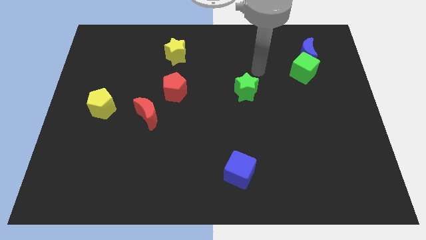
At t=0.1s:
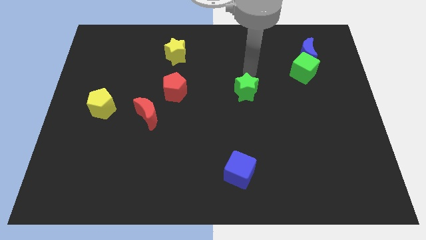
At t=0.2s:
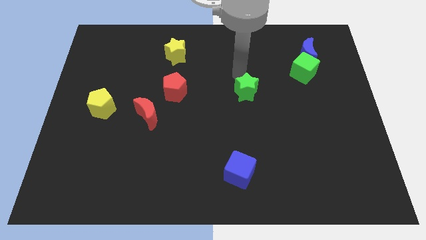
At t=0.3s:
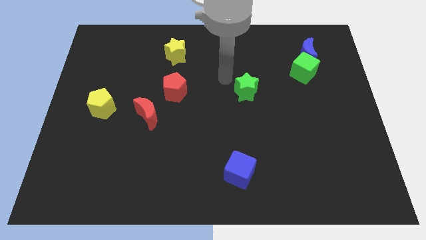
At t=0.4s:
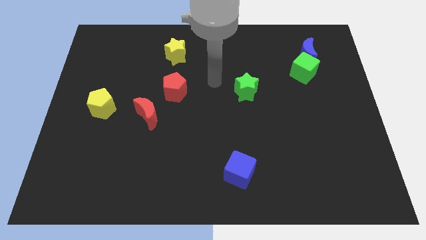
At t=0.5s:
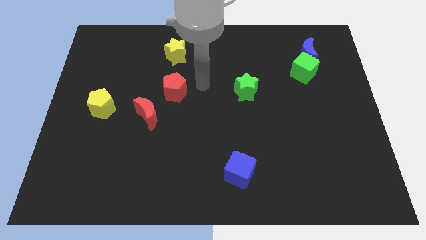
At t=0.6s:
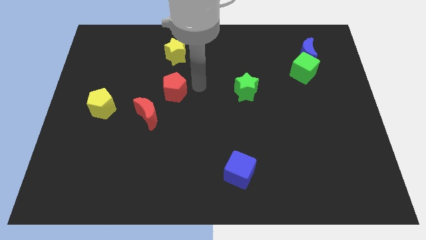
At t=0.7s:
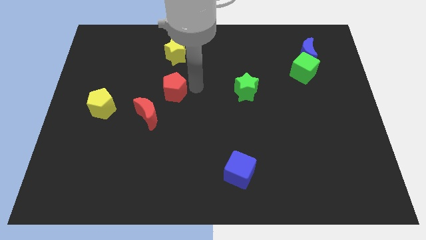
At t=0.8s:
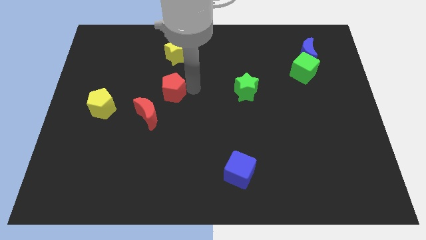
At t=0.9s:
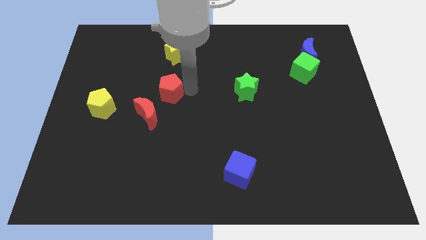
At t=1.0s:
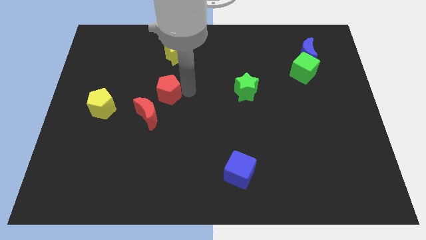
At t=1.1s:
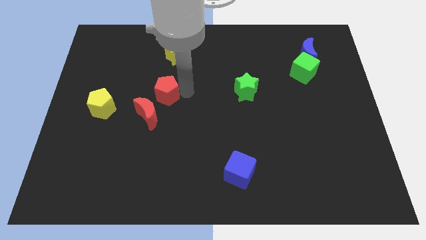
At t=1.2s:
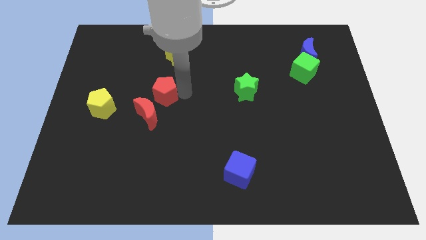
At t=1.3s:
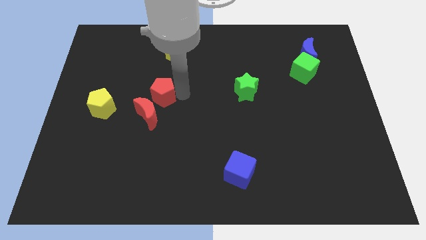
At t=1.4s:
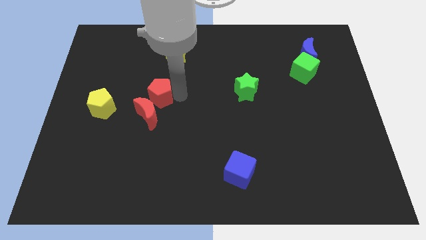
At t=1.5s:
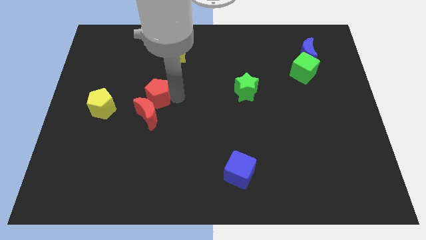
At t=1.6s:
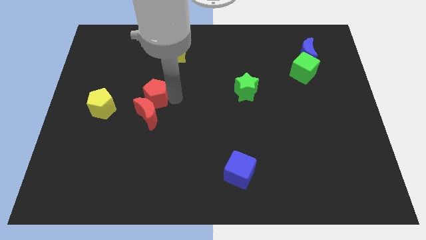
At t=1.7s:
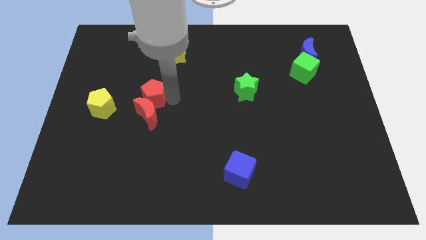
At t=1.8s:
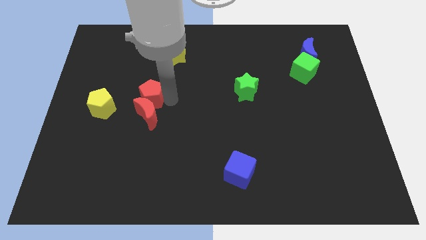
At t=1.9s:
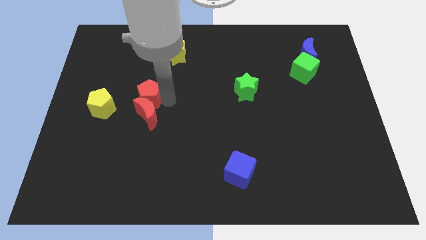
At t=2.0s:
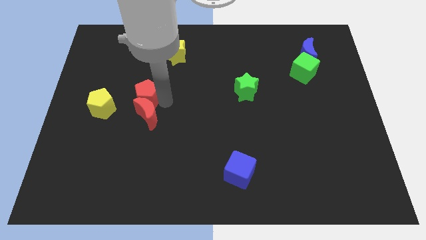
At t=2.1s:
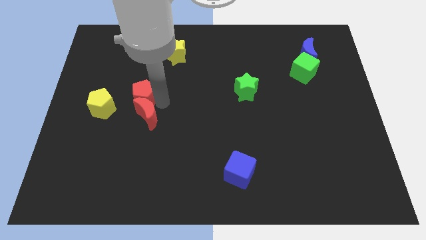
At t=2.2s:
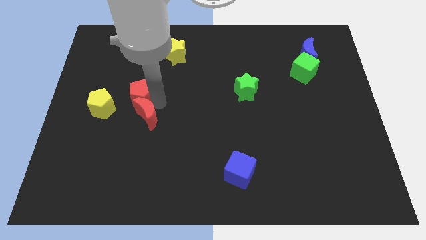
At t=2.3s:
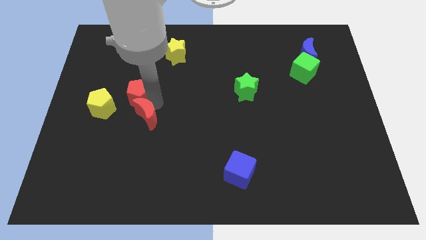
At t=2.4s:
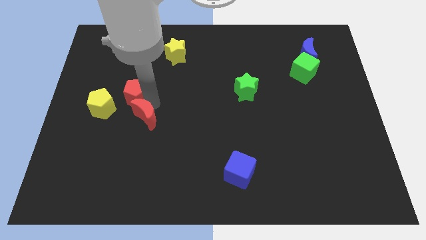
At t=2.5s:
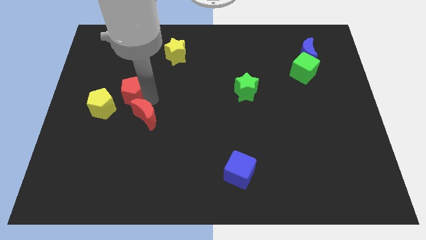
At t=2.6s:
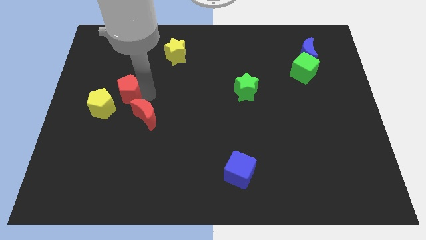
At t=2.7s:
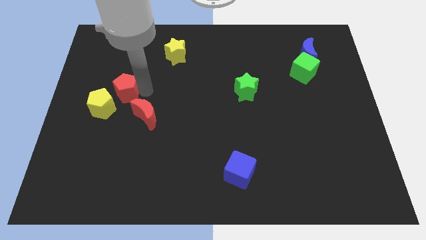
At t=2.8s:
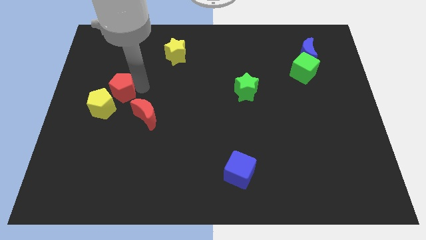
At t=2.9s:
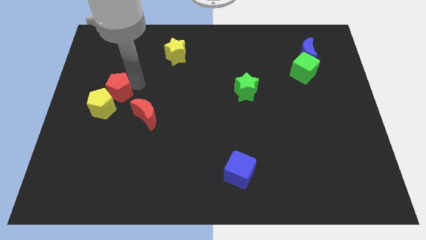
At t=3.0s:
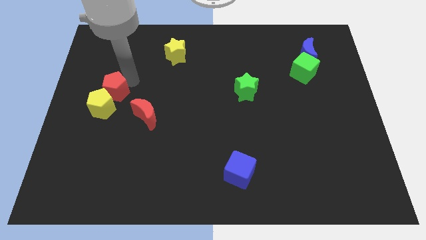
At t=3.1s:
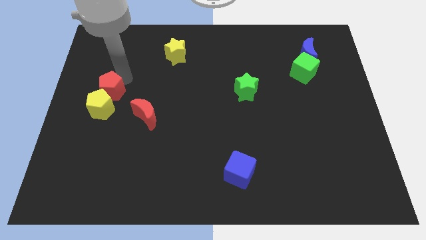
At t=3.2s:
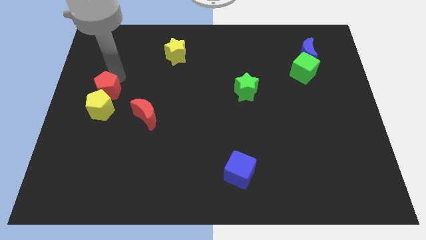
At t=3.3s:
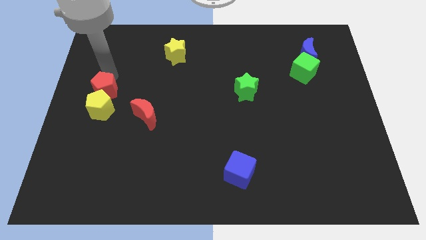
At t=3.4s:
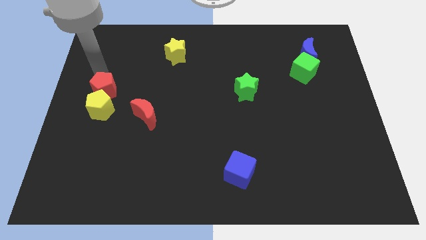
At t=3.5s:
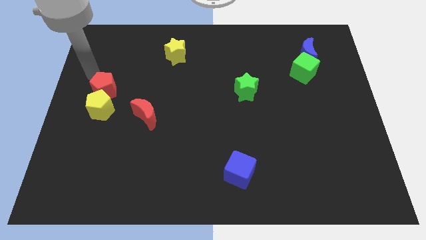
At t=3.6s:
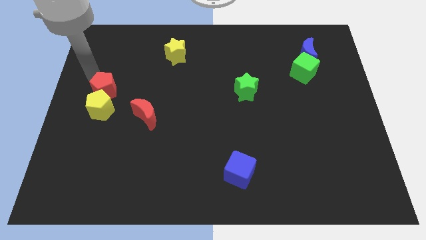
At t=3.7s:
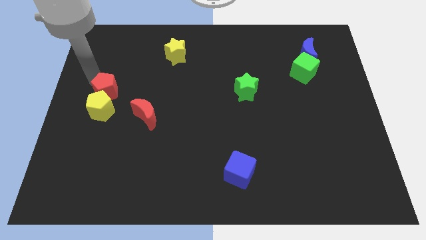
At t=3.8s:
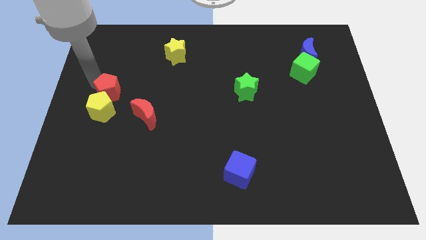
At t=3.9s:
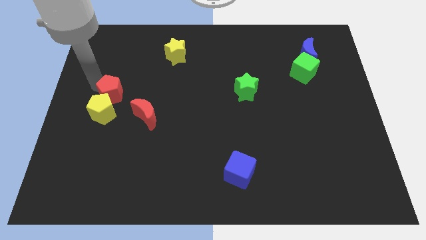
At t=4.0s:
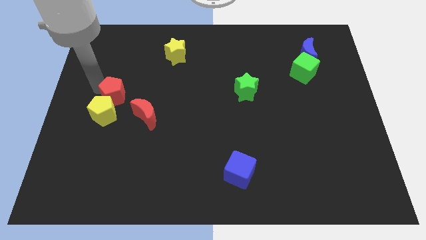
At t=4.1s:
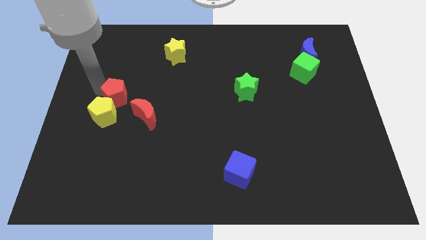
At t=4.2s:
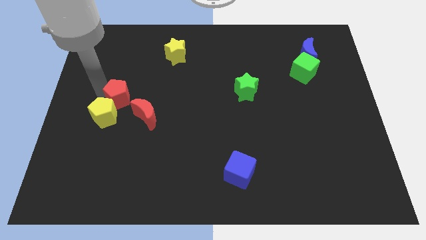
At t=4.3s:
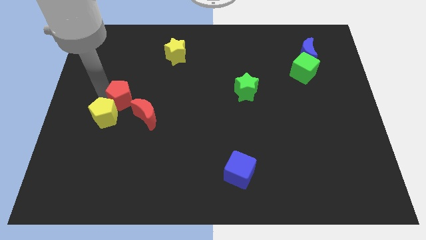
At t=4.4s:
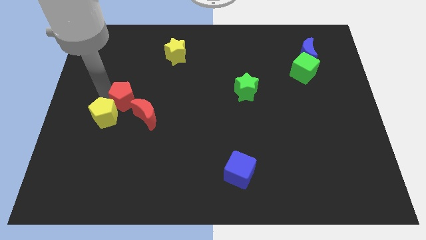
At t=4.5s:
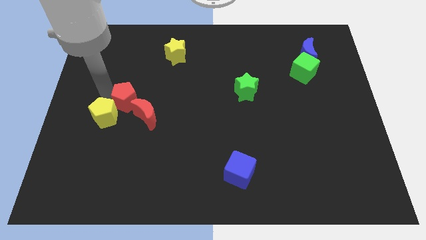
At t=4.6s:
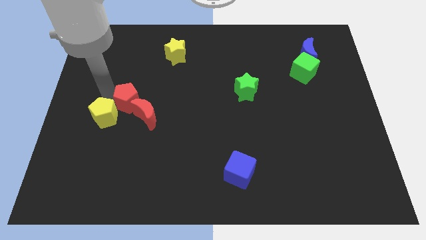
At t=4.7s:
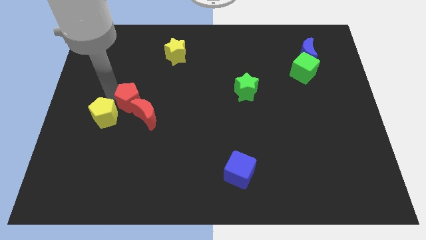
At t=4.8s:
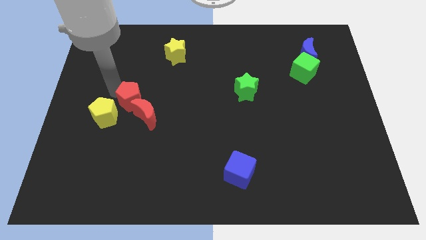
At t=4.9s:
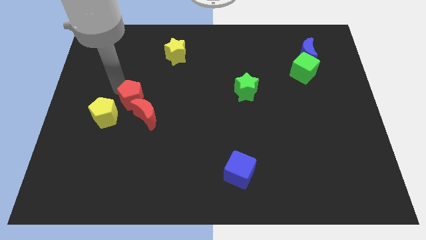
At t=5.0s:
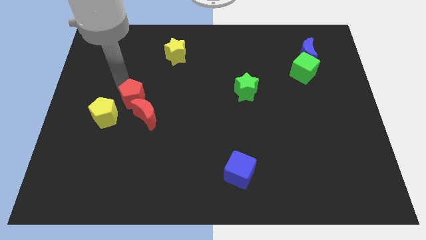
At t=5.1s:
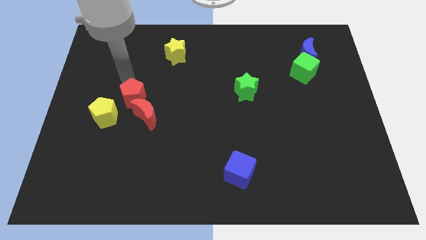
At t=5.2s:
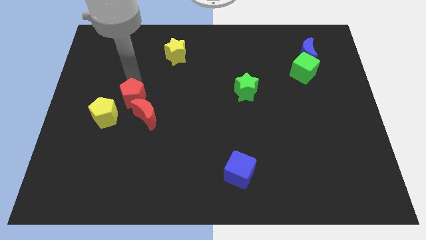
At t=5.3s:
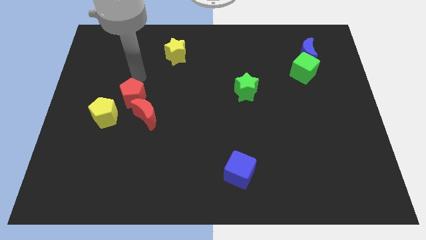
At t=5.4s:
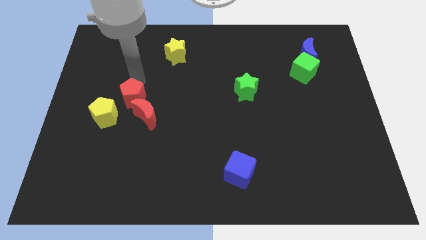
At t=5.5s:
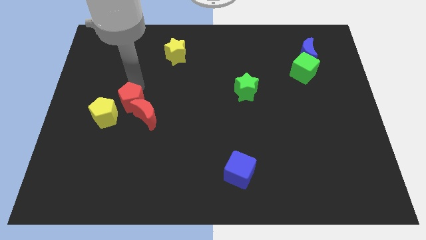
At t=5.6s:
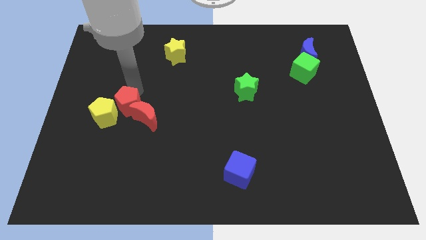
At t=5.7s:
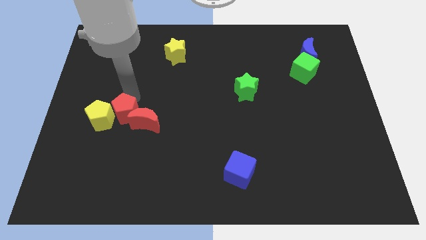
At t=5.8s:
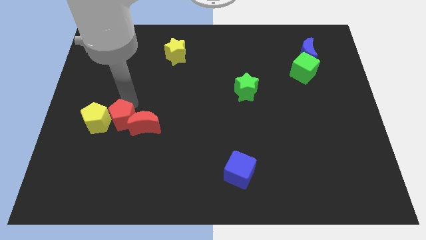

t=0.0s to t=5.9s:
slide the red pentagon diagonally down and to the right of the yellow pentagon

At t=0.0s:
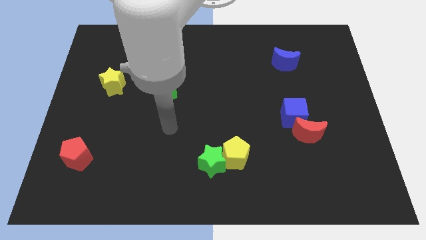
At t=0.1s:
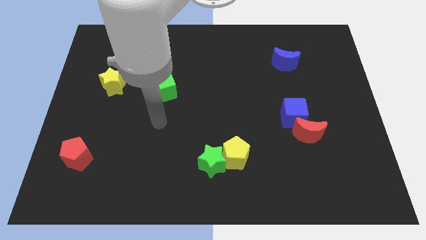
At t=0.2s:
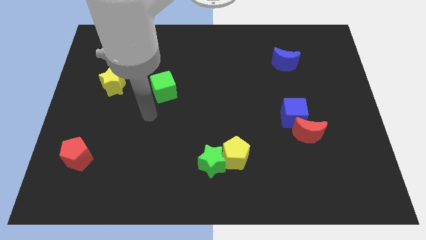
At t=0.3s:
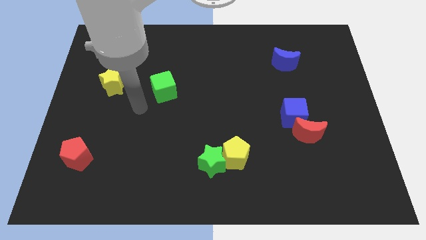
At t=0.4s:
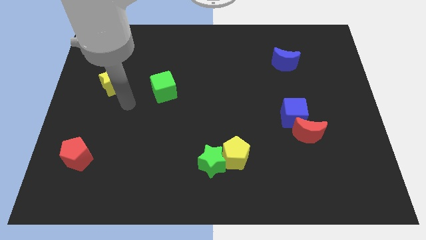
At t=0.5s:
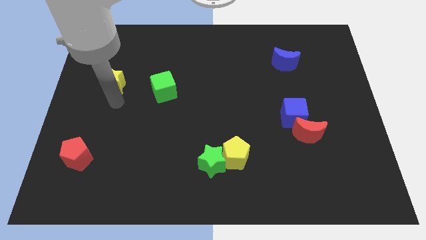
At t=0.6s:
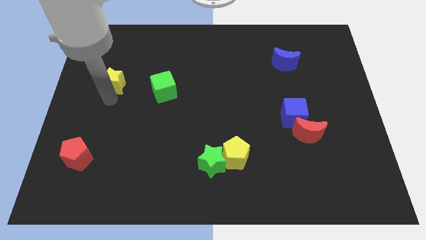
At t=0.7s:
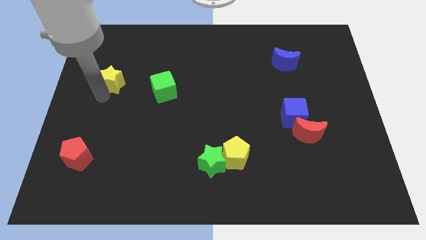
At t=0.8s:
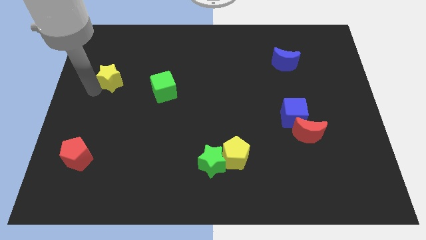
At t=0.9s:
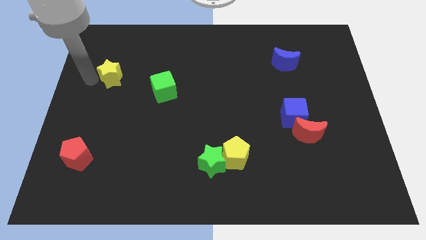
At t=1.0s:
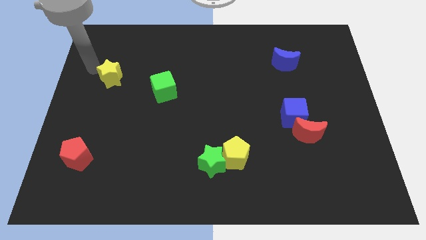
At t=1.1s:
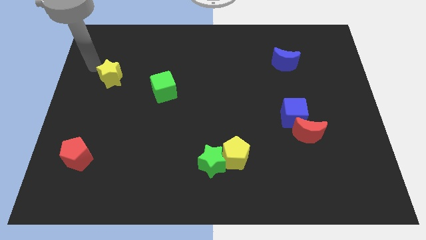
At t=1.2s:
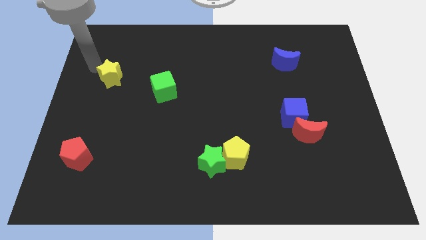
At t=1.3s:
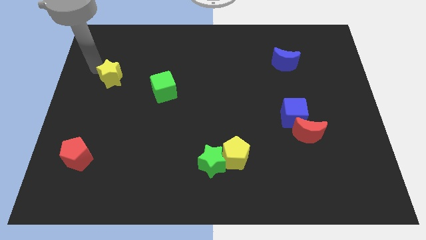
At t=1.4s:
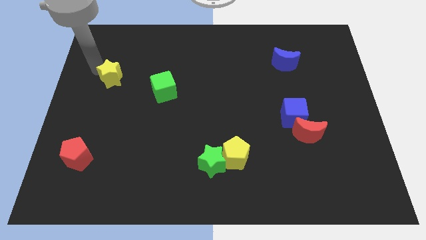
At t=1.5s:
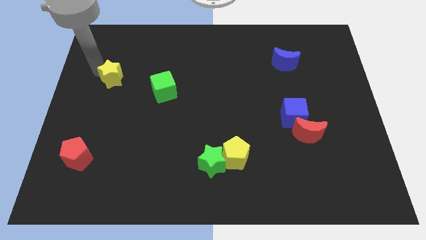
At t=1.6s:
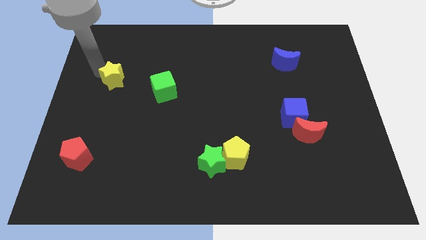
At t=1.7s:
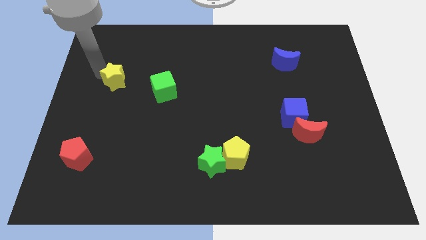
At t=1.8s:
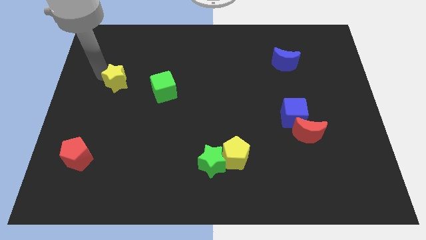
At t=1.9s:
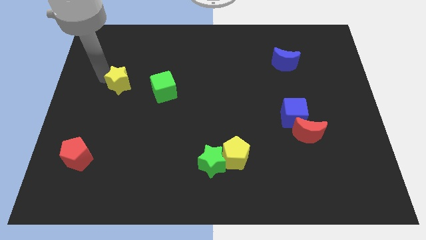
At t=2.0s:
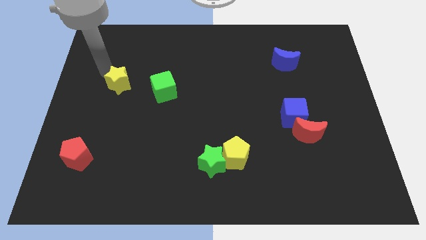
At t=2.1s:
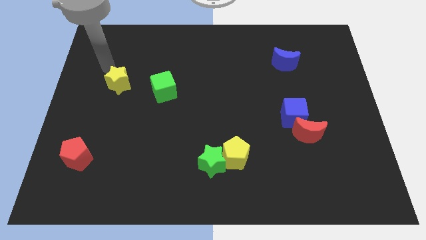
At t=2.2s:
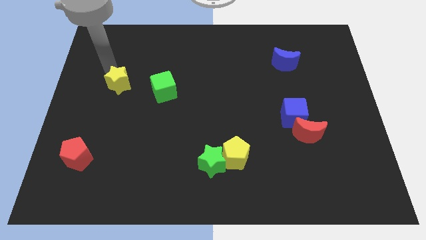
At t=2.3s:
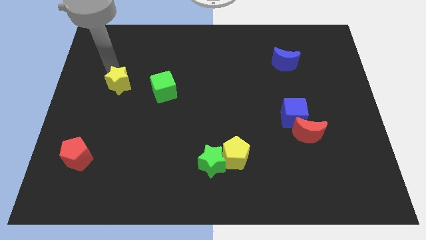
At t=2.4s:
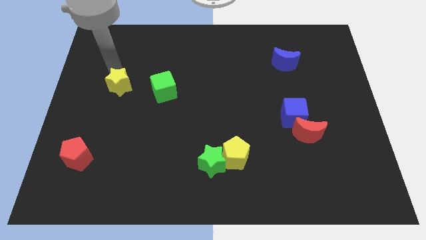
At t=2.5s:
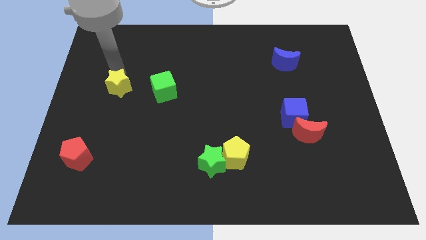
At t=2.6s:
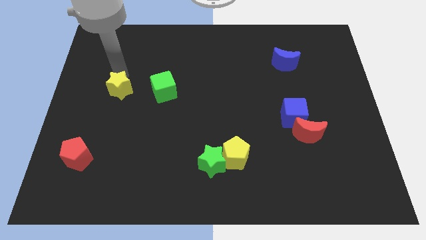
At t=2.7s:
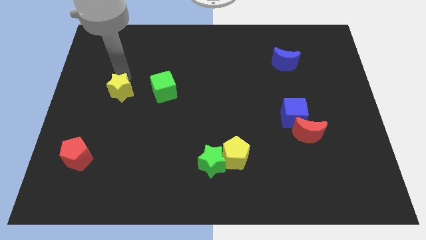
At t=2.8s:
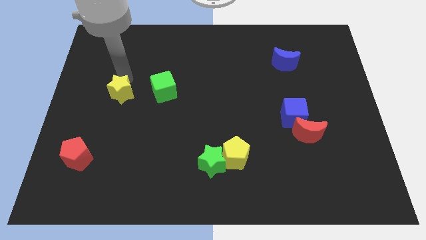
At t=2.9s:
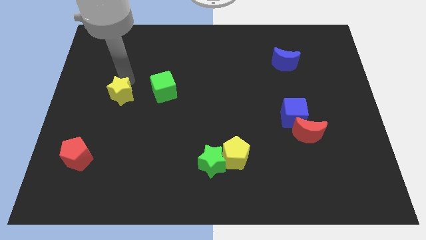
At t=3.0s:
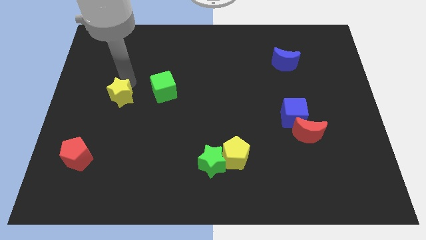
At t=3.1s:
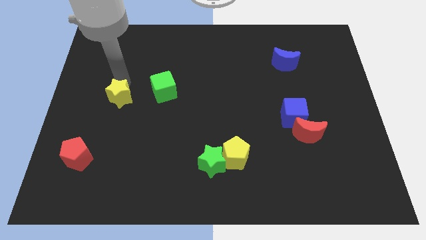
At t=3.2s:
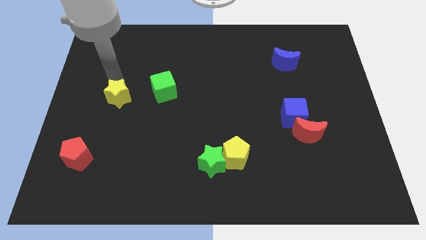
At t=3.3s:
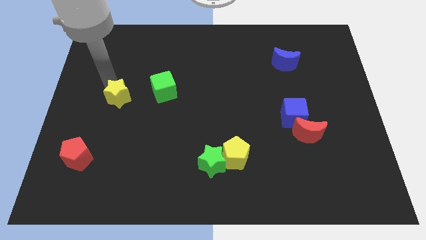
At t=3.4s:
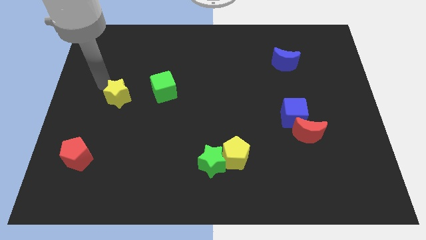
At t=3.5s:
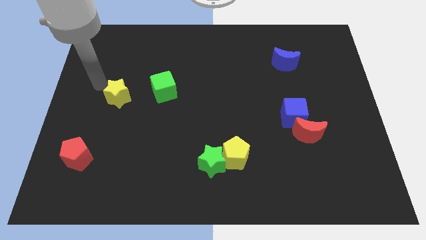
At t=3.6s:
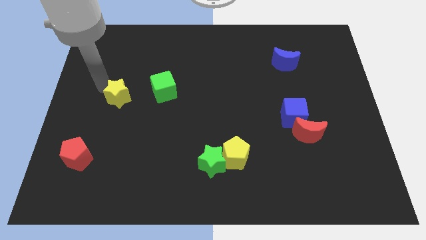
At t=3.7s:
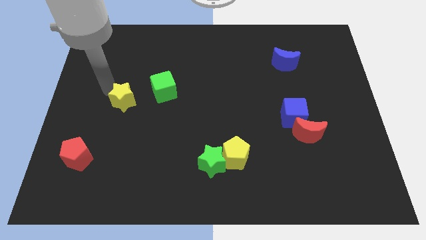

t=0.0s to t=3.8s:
slide the yellow star diagonally down and to the left of the green cube
